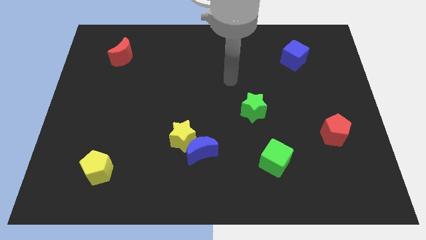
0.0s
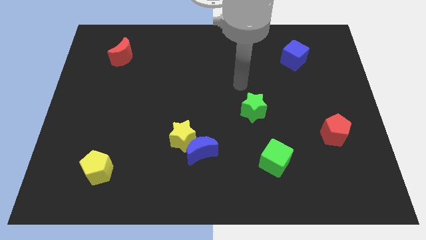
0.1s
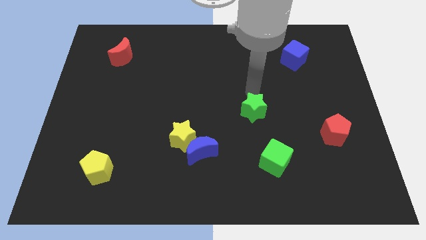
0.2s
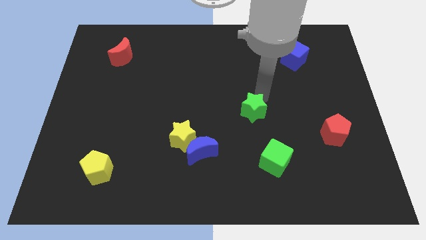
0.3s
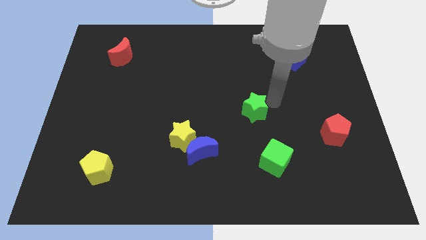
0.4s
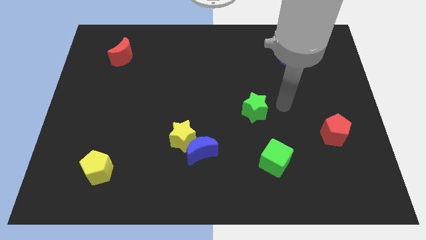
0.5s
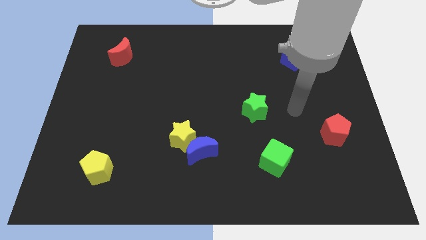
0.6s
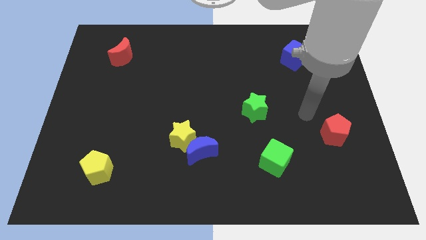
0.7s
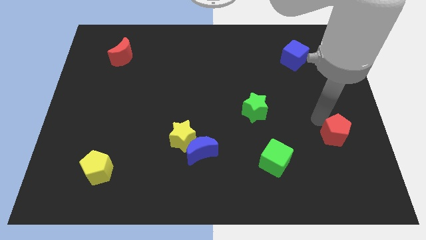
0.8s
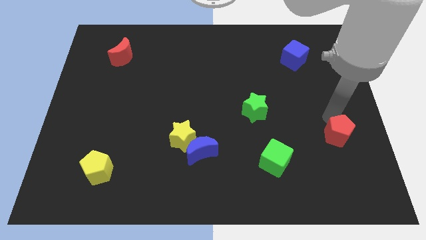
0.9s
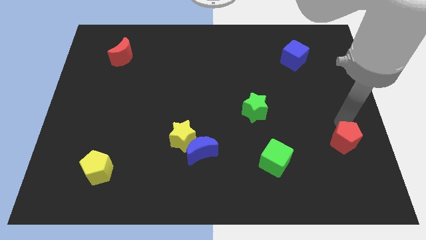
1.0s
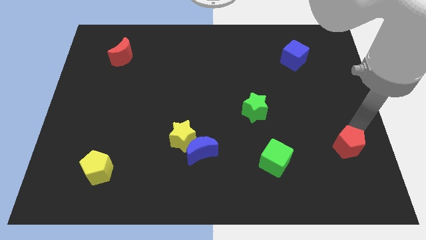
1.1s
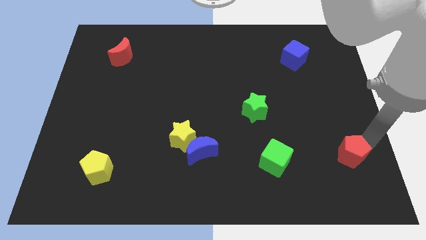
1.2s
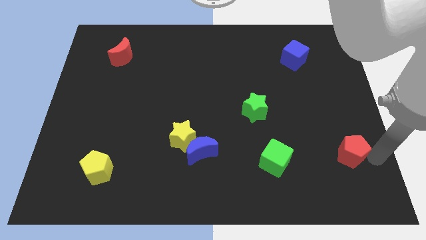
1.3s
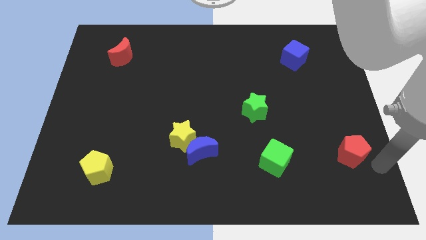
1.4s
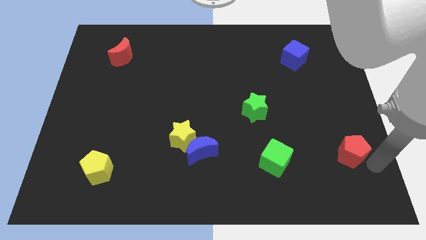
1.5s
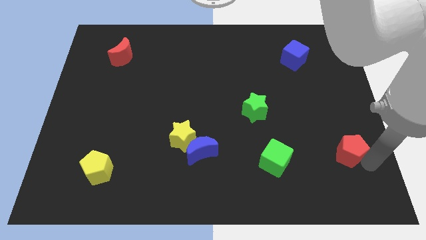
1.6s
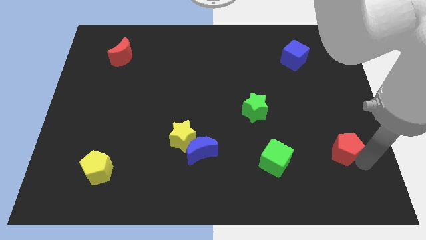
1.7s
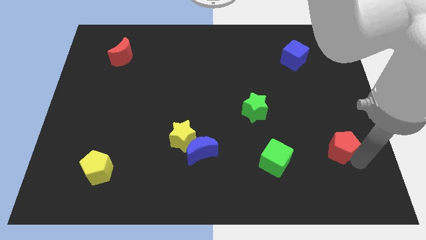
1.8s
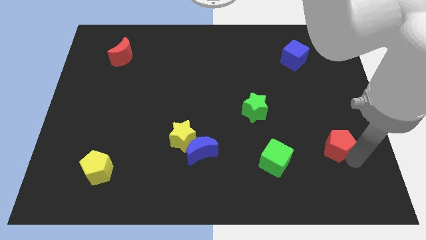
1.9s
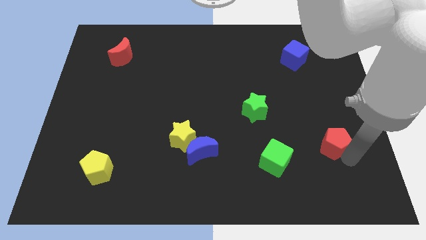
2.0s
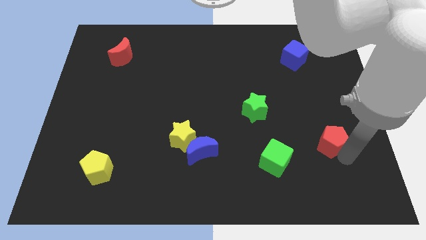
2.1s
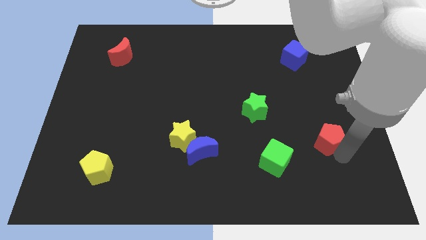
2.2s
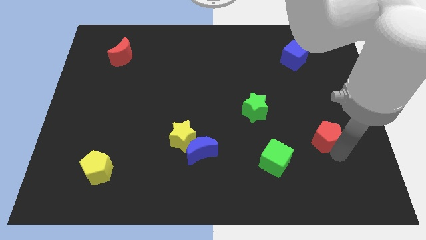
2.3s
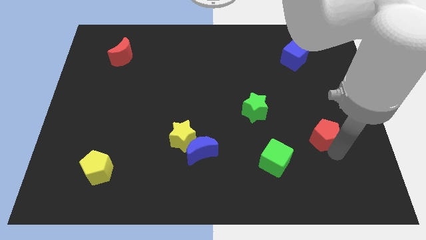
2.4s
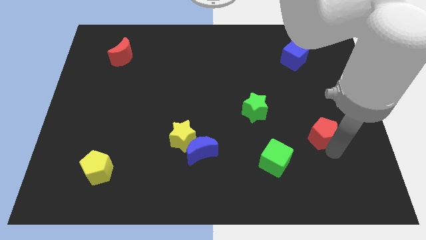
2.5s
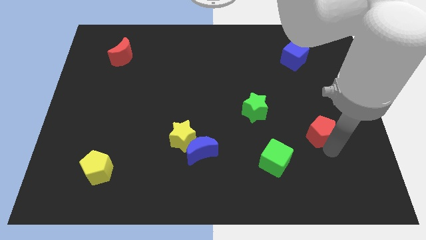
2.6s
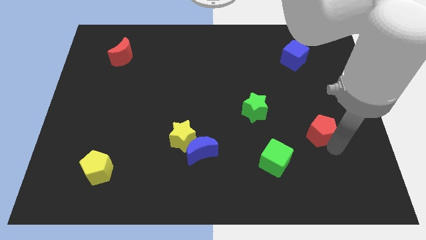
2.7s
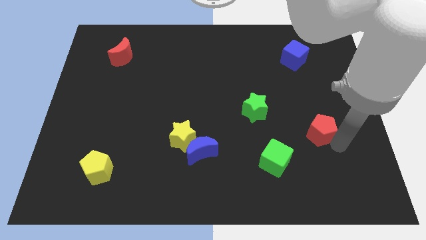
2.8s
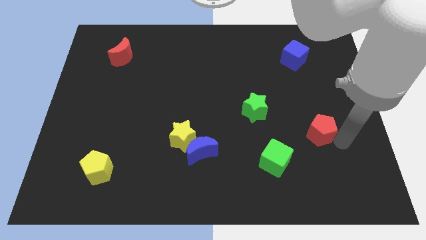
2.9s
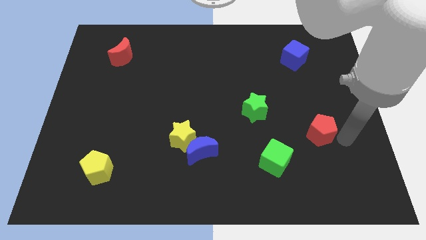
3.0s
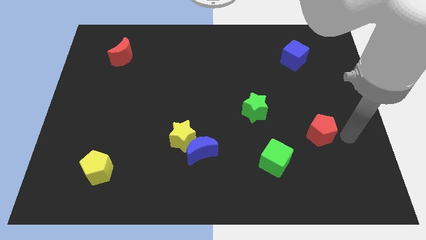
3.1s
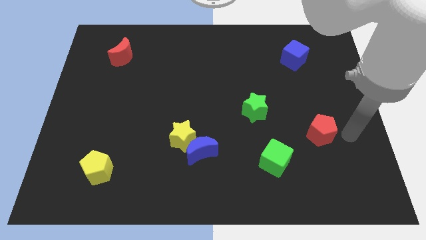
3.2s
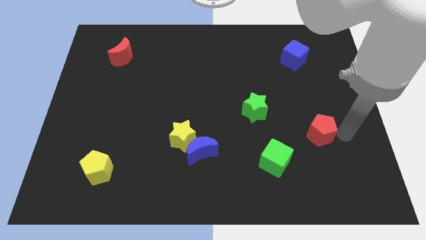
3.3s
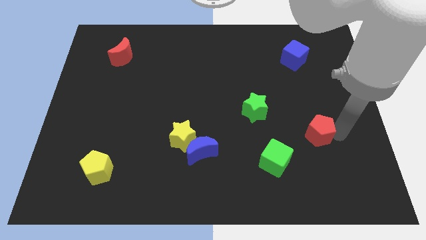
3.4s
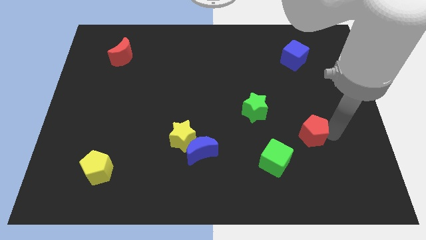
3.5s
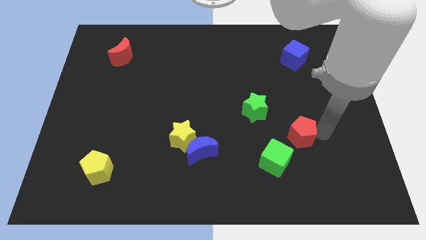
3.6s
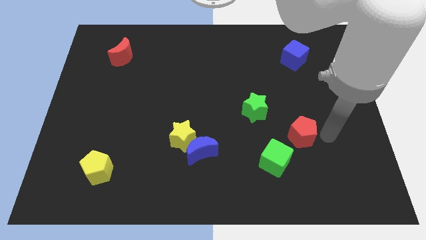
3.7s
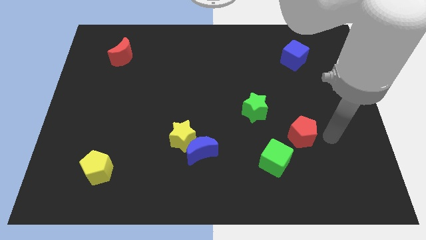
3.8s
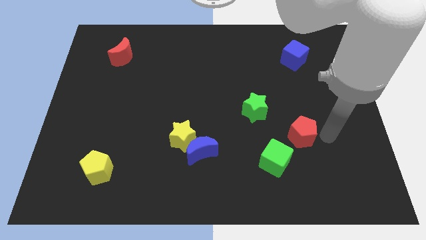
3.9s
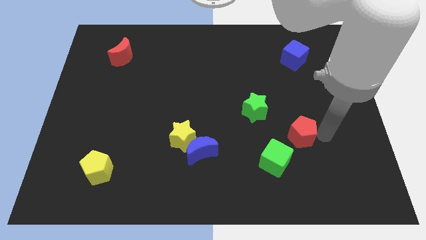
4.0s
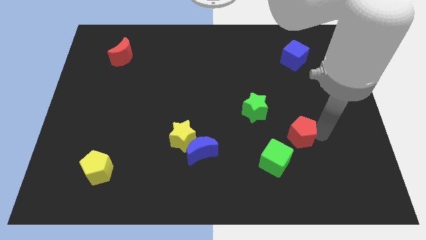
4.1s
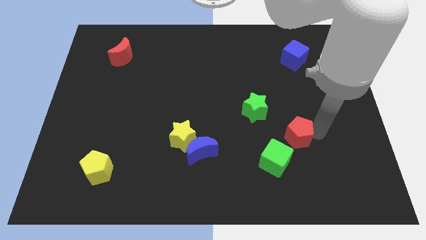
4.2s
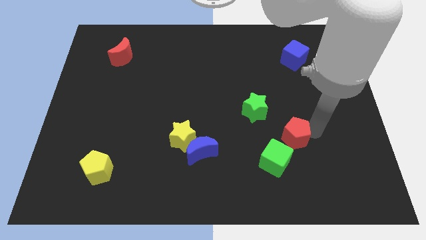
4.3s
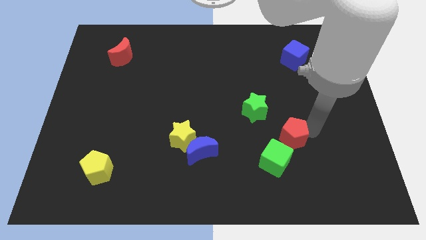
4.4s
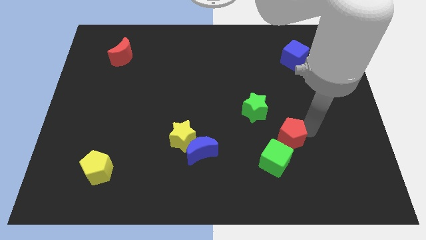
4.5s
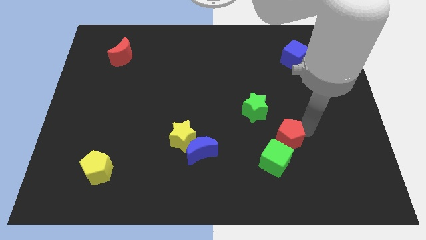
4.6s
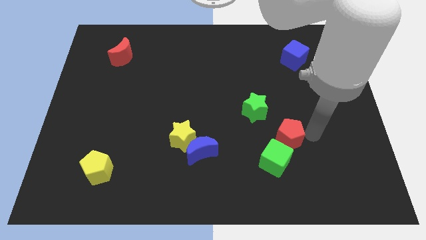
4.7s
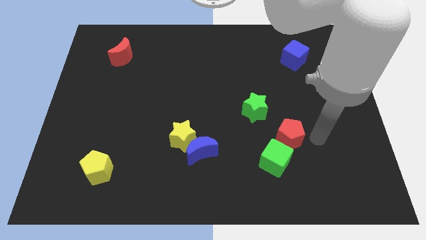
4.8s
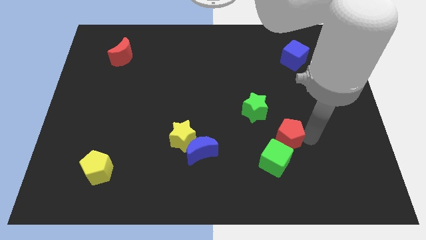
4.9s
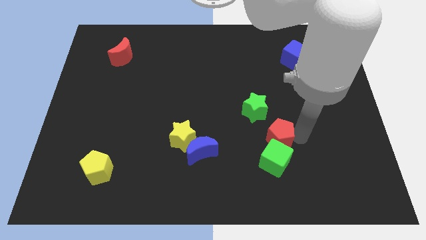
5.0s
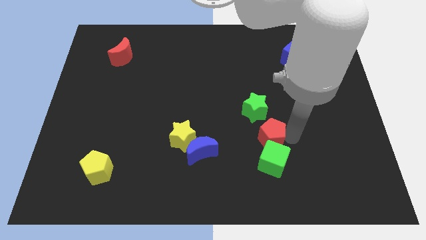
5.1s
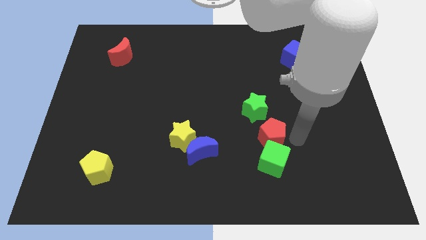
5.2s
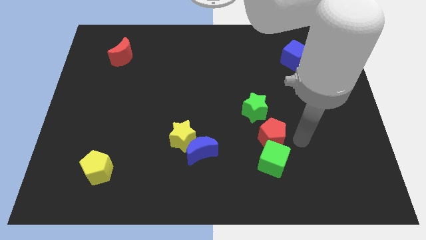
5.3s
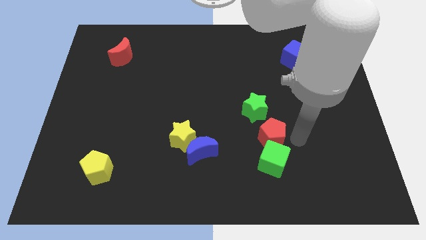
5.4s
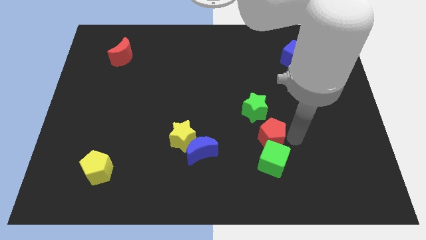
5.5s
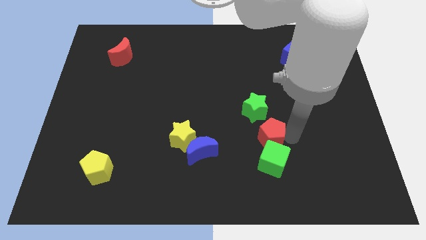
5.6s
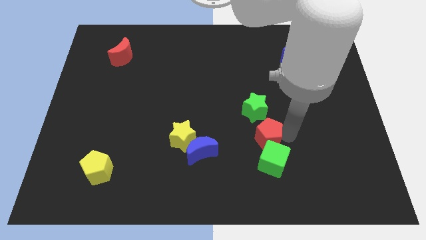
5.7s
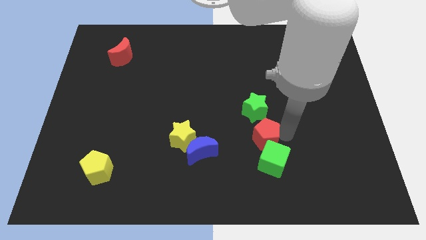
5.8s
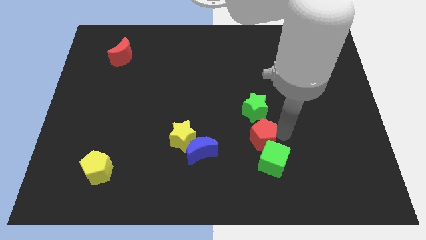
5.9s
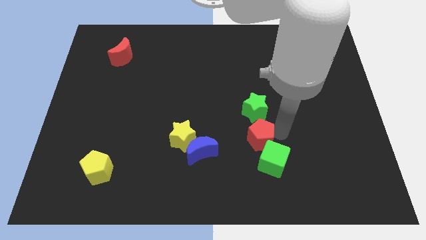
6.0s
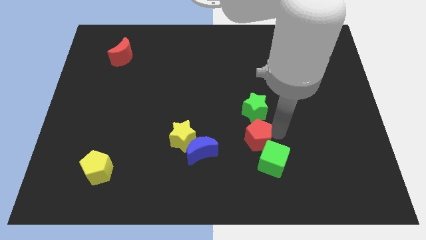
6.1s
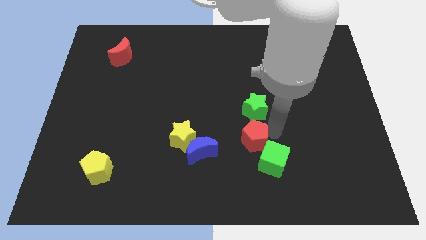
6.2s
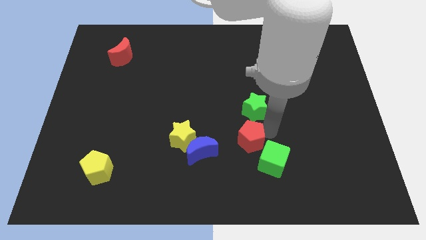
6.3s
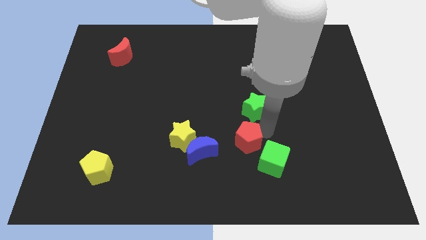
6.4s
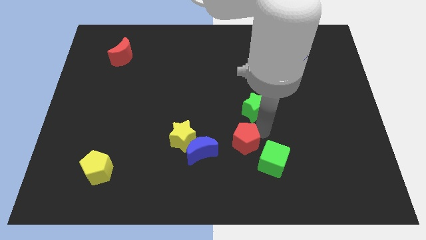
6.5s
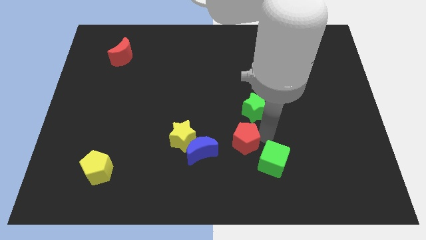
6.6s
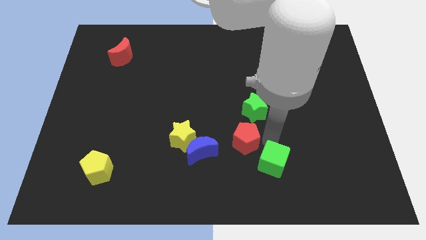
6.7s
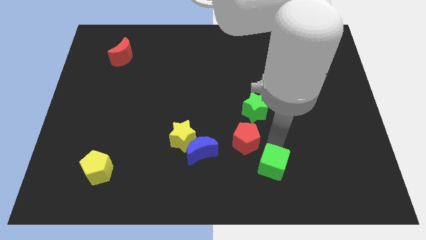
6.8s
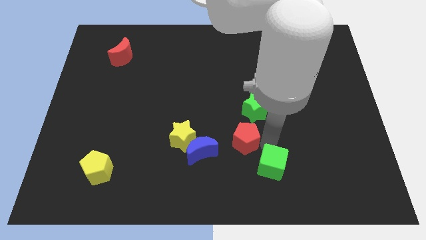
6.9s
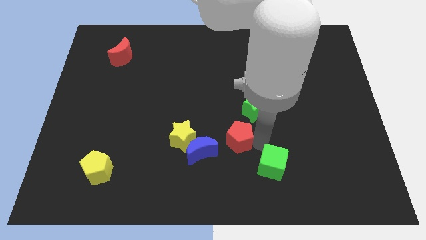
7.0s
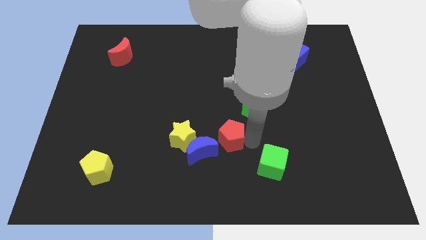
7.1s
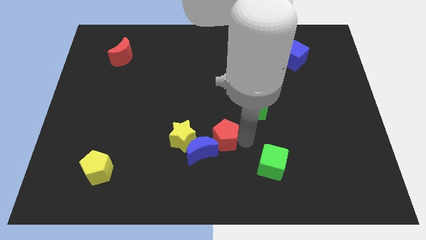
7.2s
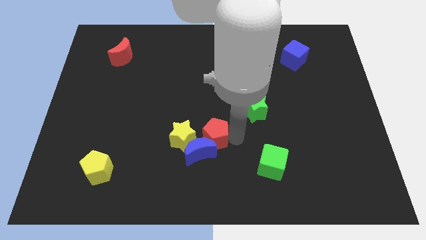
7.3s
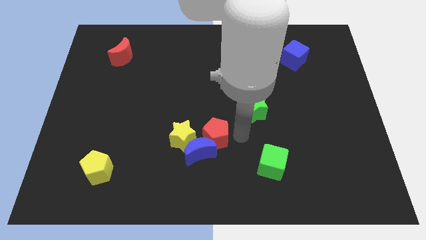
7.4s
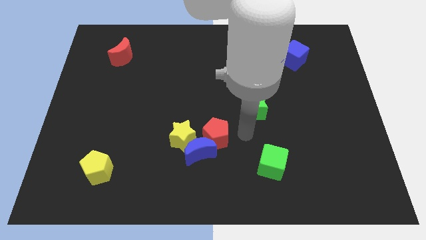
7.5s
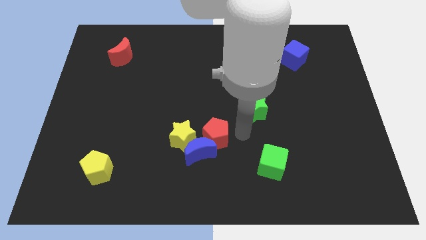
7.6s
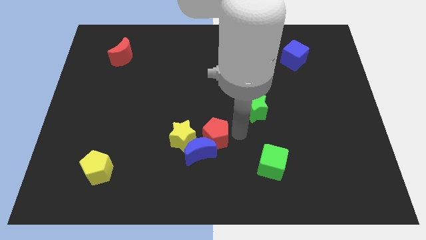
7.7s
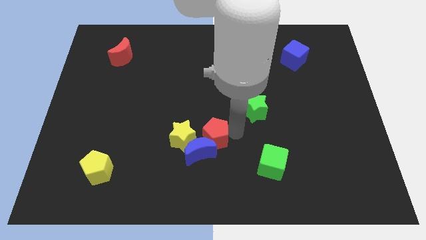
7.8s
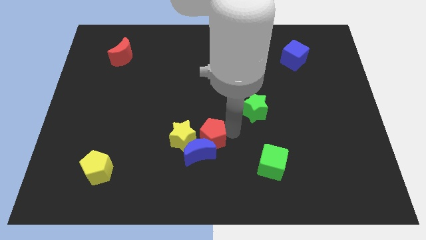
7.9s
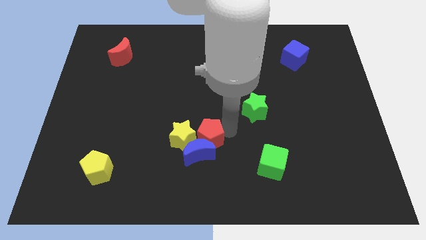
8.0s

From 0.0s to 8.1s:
slide the red pentagon next to the yellow star
